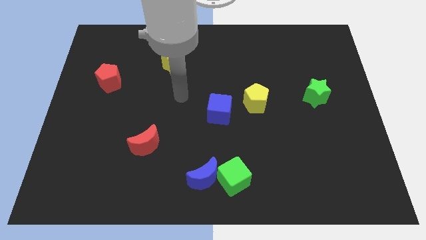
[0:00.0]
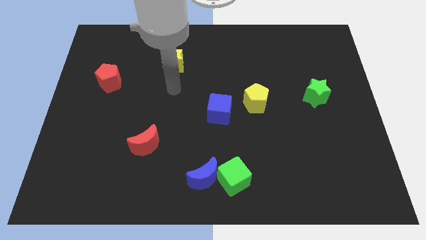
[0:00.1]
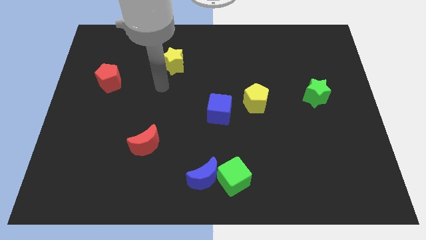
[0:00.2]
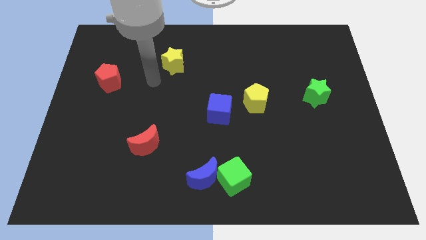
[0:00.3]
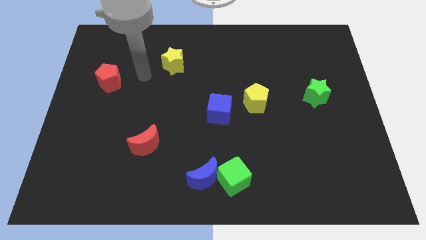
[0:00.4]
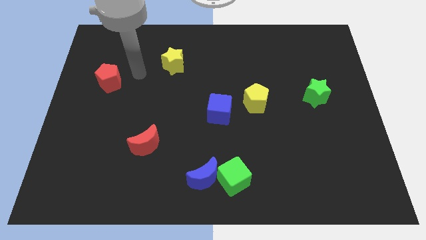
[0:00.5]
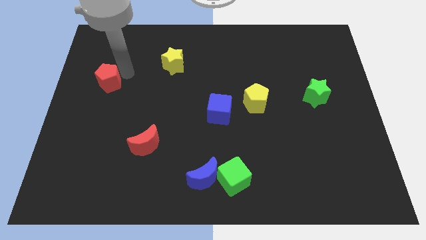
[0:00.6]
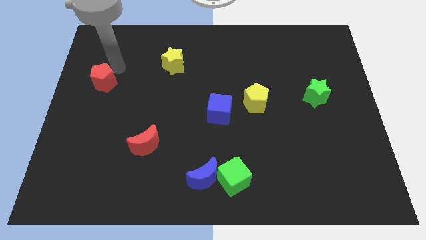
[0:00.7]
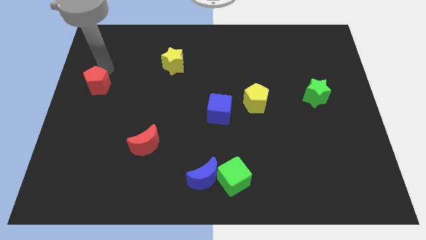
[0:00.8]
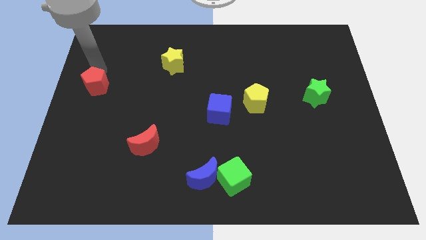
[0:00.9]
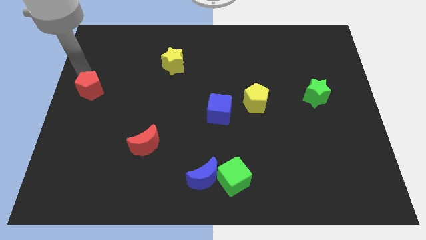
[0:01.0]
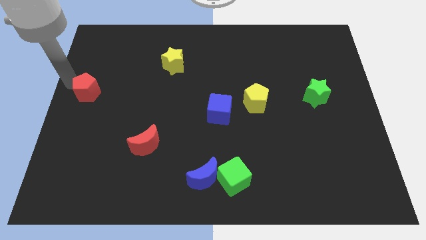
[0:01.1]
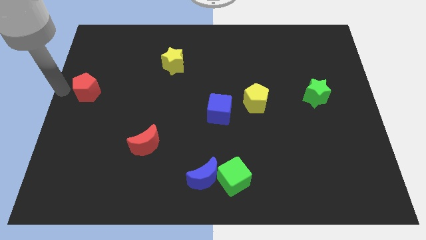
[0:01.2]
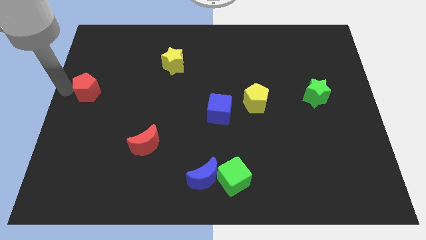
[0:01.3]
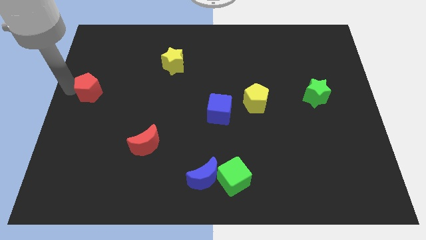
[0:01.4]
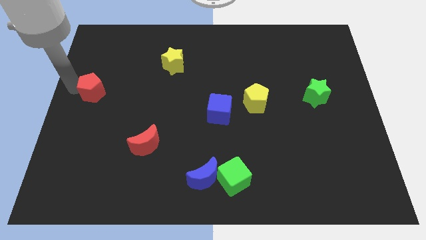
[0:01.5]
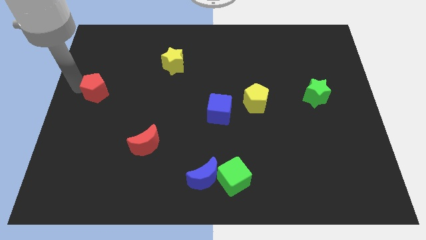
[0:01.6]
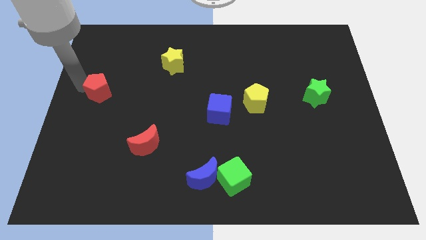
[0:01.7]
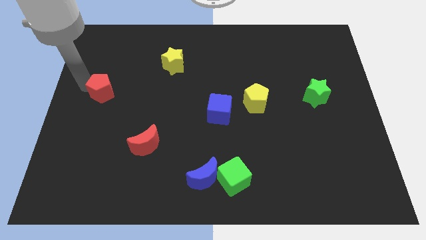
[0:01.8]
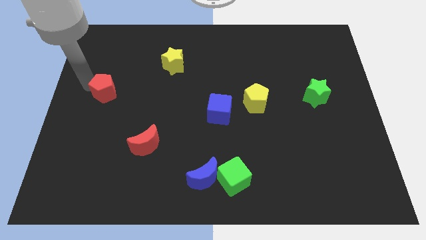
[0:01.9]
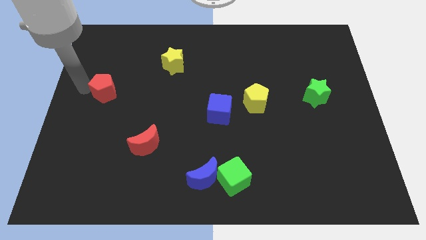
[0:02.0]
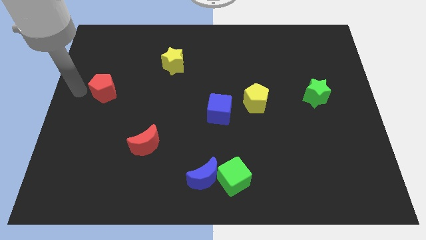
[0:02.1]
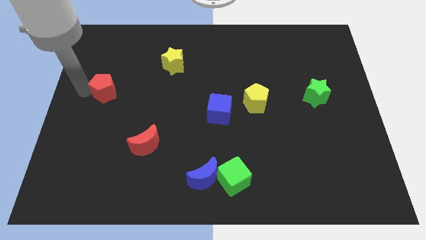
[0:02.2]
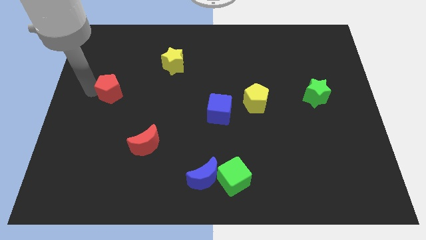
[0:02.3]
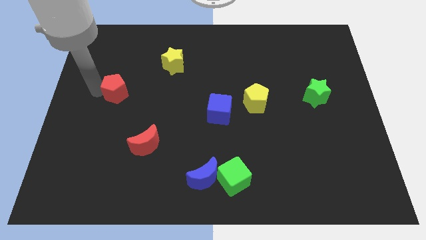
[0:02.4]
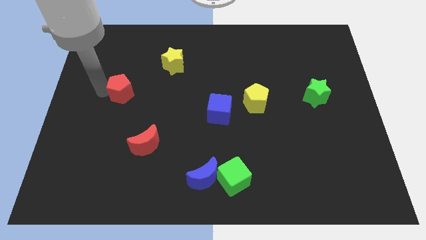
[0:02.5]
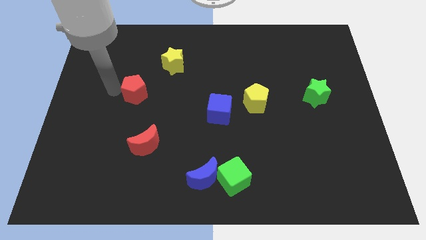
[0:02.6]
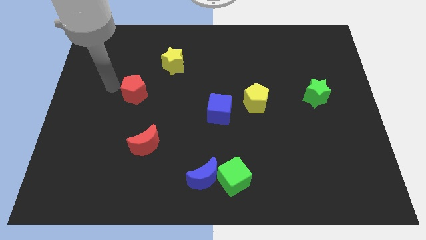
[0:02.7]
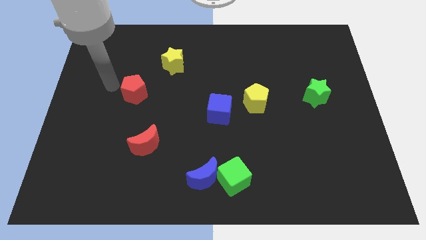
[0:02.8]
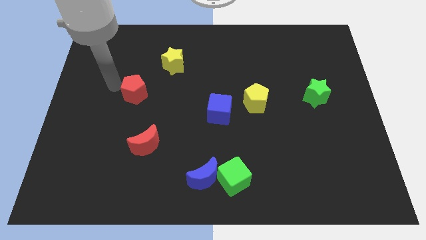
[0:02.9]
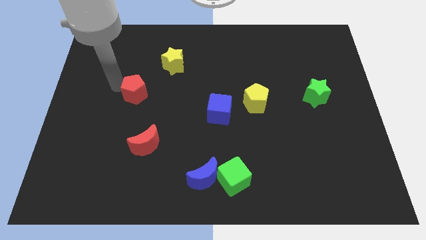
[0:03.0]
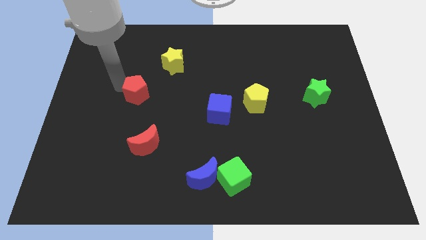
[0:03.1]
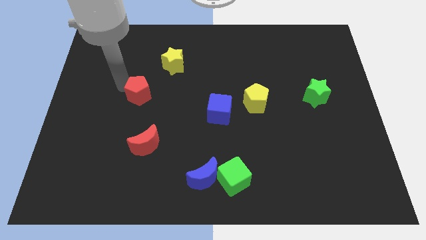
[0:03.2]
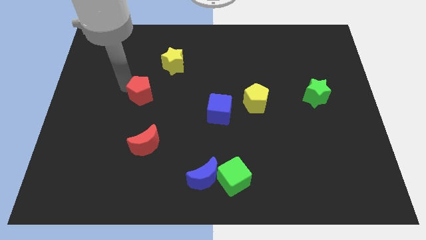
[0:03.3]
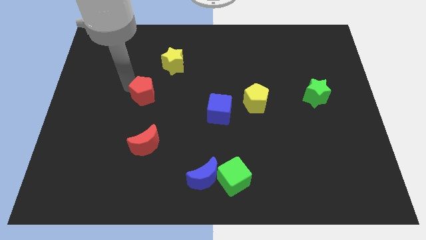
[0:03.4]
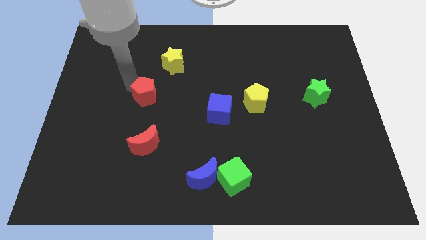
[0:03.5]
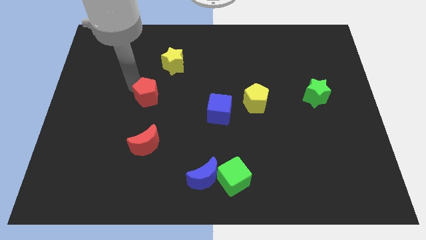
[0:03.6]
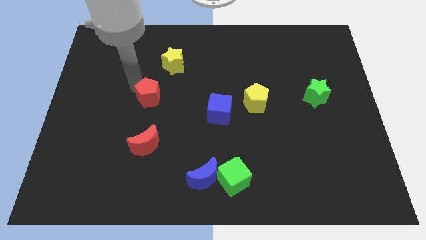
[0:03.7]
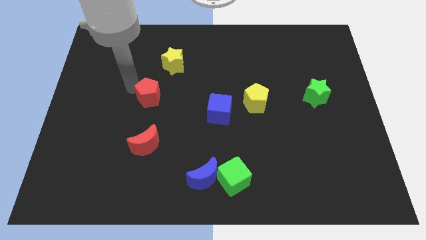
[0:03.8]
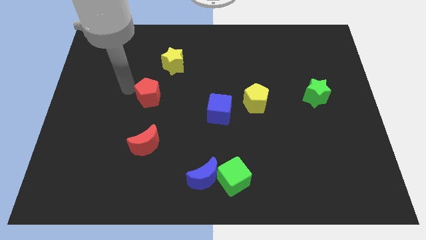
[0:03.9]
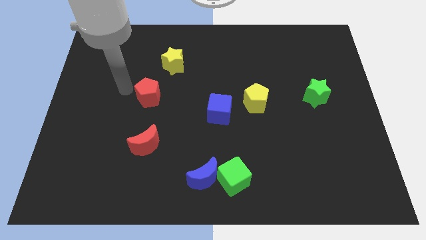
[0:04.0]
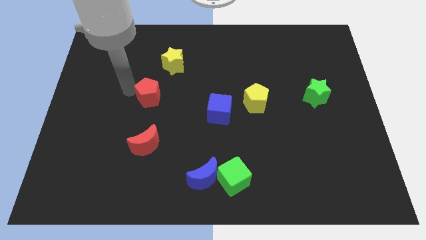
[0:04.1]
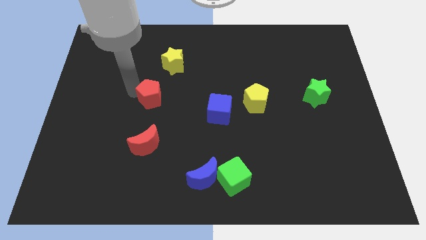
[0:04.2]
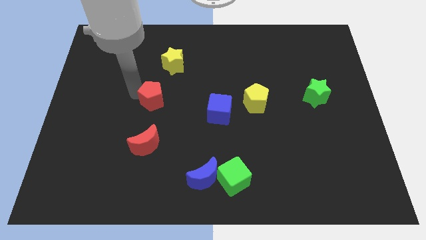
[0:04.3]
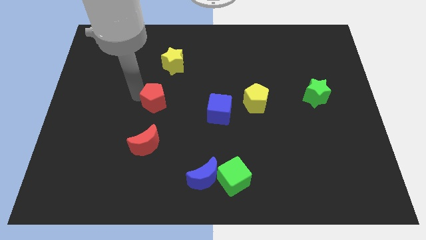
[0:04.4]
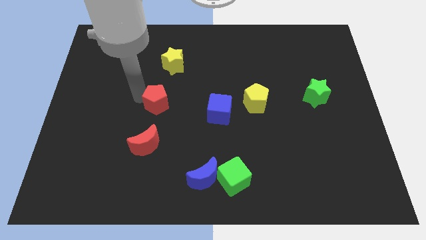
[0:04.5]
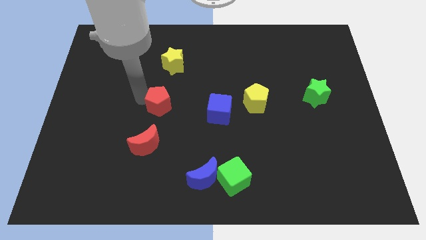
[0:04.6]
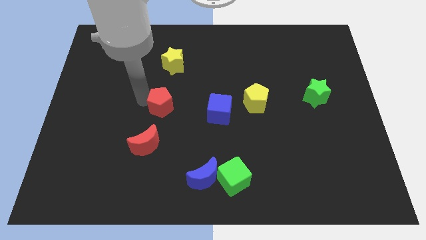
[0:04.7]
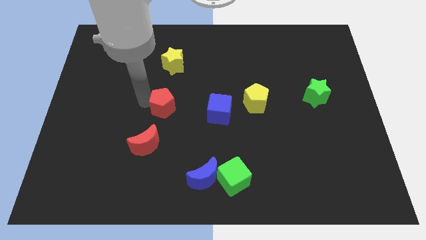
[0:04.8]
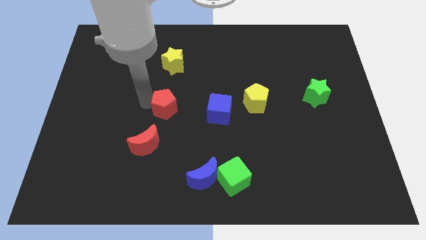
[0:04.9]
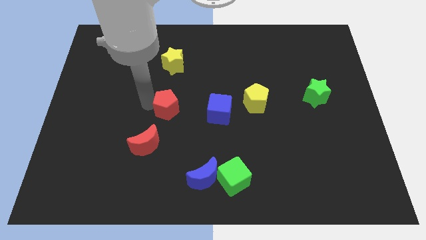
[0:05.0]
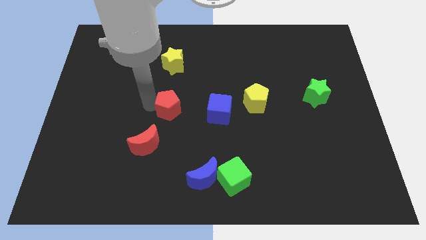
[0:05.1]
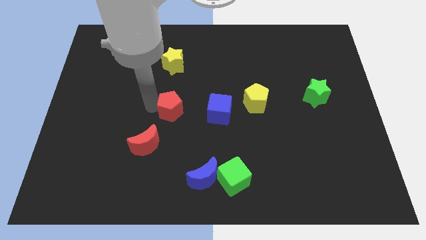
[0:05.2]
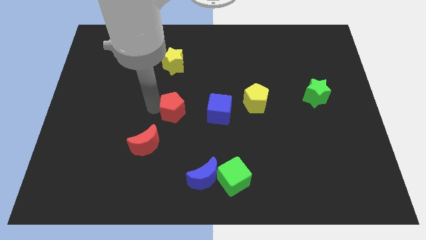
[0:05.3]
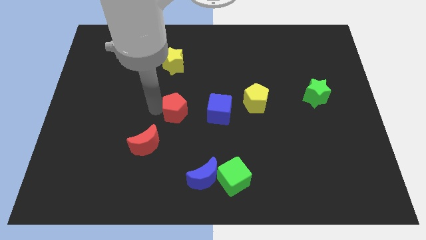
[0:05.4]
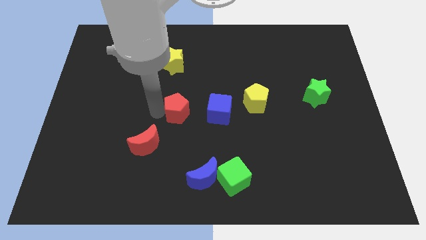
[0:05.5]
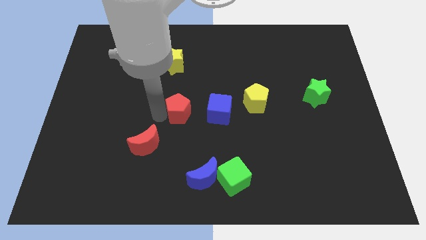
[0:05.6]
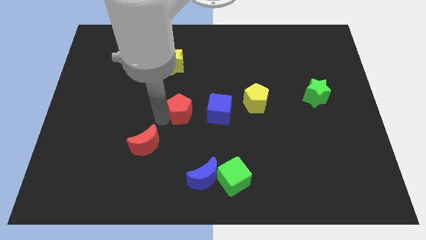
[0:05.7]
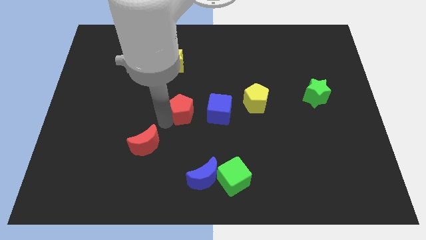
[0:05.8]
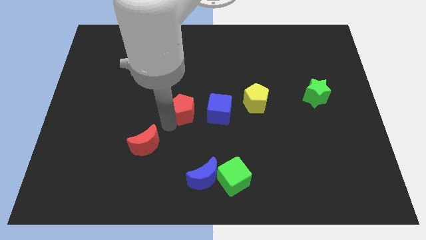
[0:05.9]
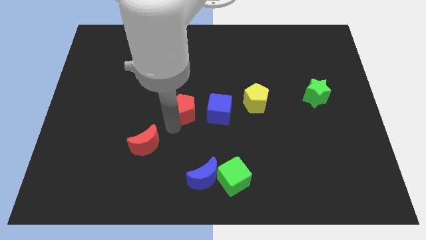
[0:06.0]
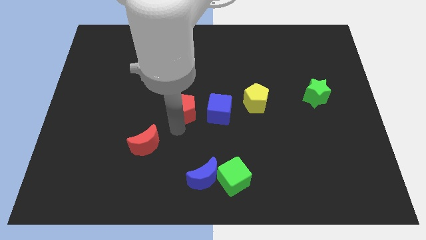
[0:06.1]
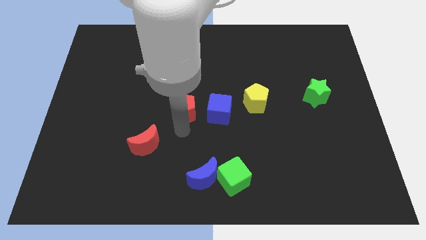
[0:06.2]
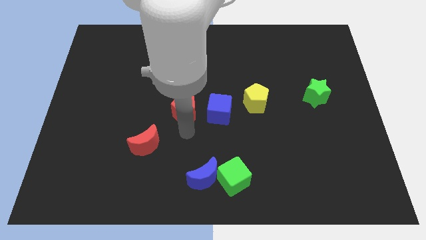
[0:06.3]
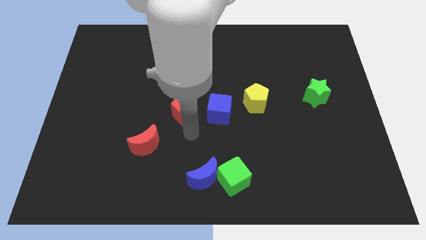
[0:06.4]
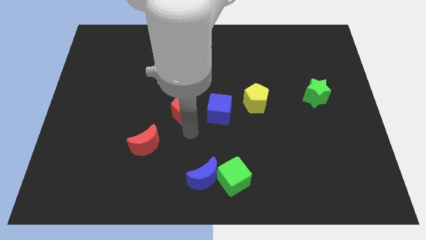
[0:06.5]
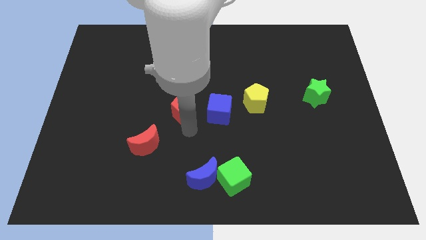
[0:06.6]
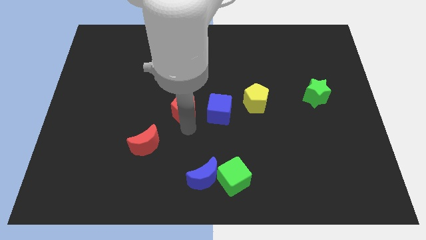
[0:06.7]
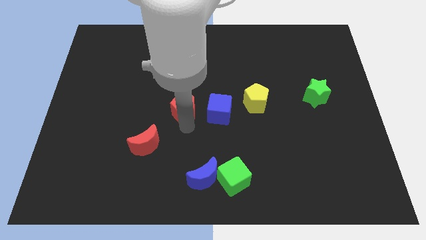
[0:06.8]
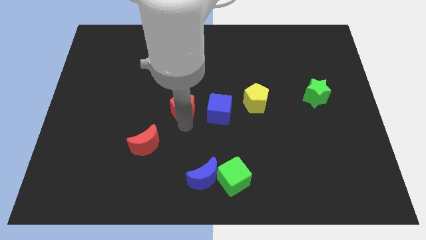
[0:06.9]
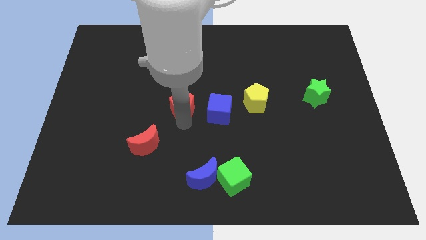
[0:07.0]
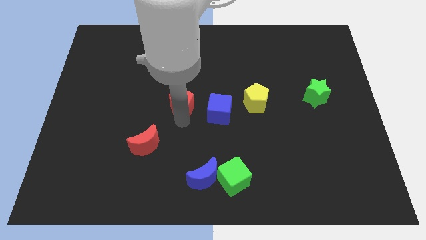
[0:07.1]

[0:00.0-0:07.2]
put the red pentagon diagonally up and to the left of the blue cube
